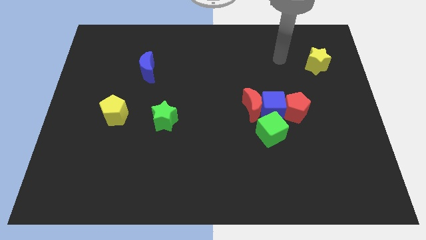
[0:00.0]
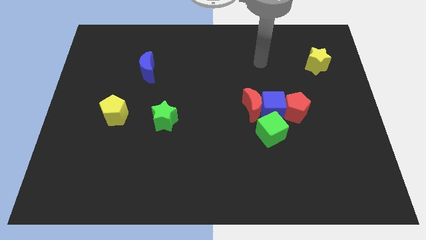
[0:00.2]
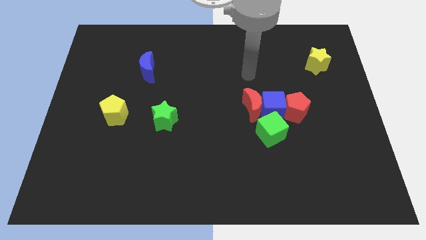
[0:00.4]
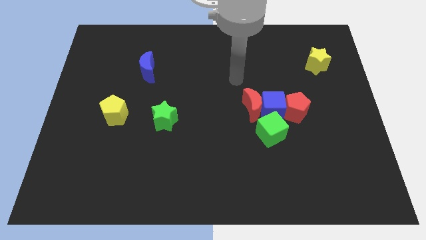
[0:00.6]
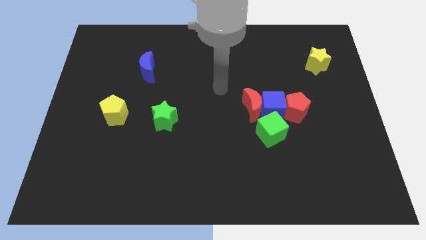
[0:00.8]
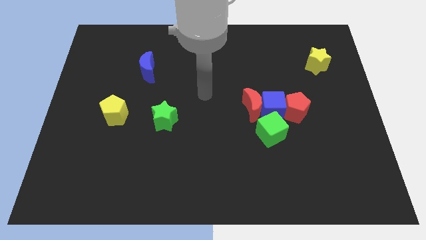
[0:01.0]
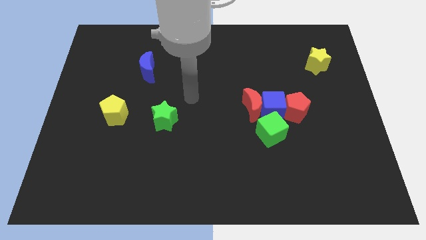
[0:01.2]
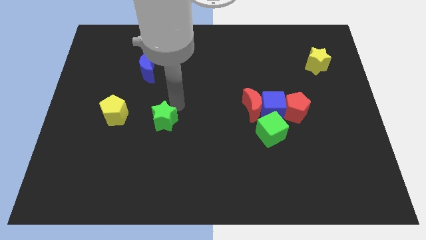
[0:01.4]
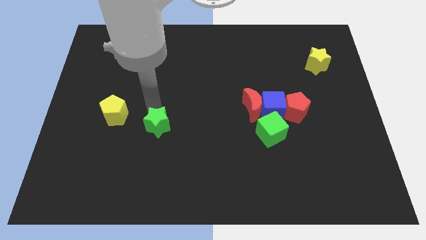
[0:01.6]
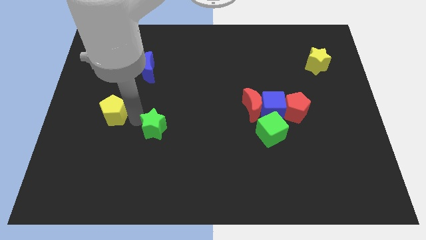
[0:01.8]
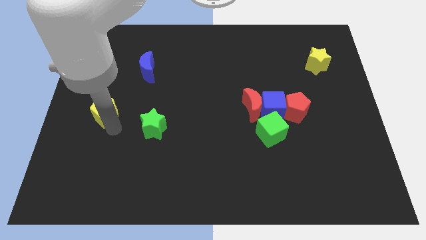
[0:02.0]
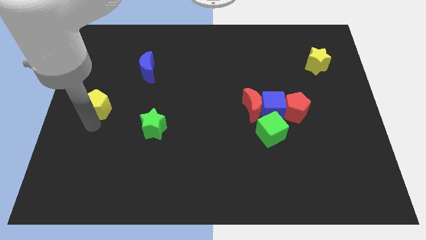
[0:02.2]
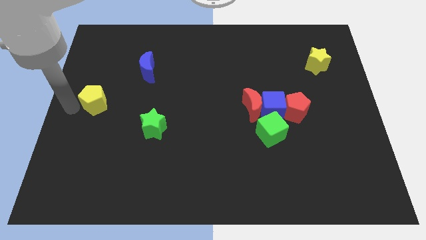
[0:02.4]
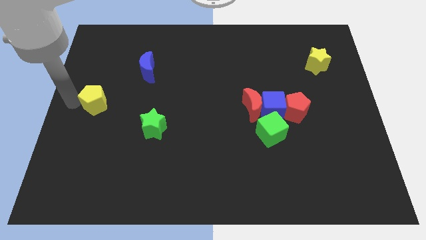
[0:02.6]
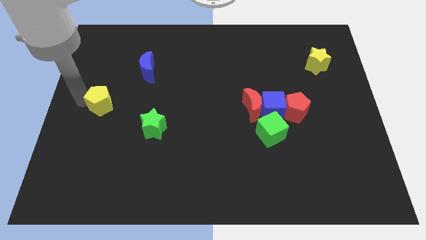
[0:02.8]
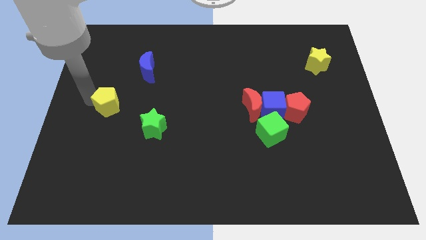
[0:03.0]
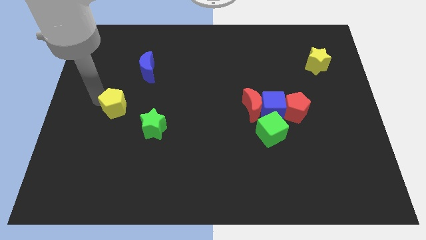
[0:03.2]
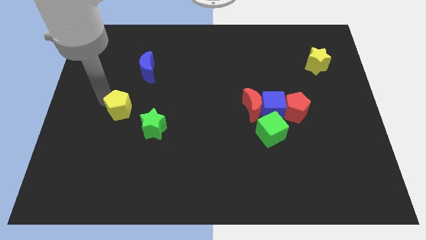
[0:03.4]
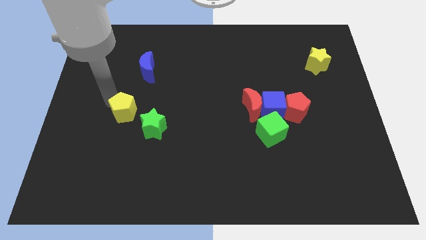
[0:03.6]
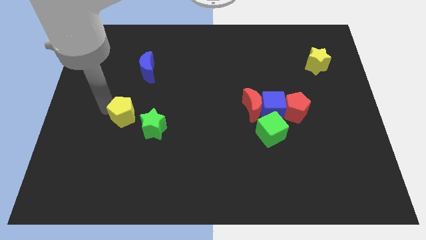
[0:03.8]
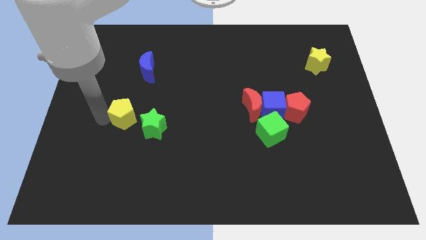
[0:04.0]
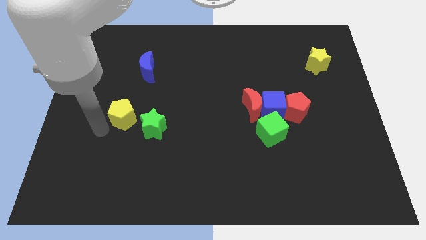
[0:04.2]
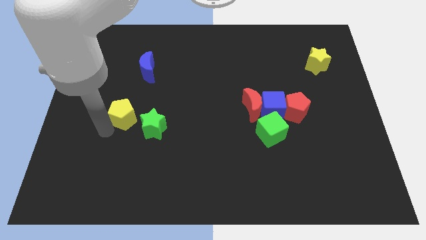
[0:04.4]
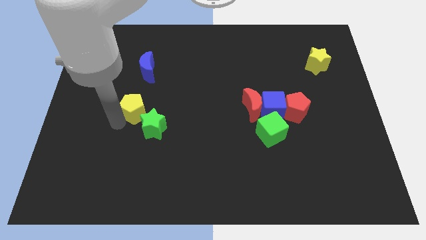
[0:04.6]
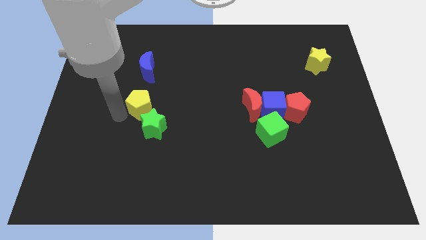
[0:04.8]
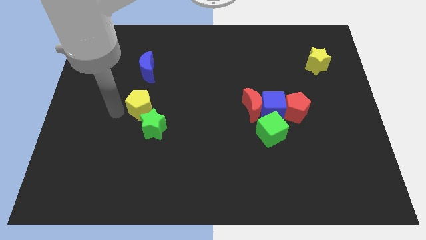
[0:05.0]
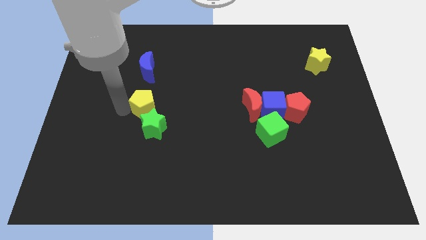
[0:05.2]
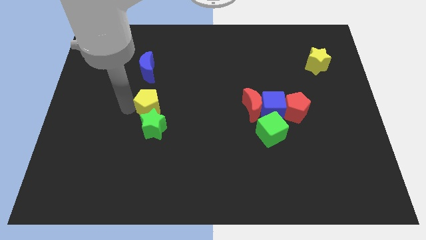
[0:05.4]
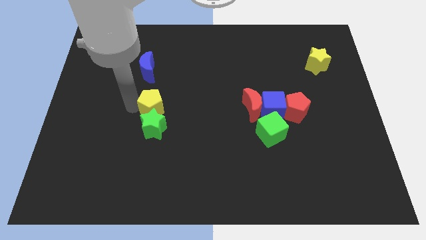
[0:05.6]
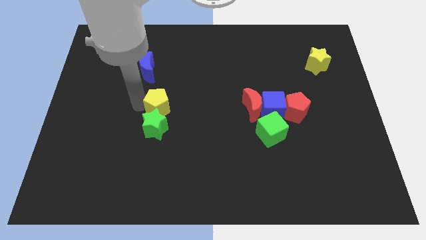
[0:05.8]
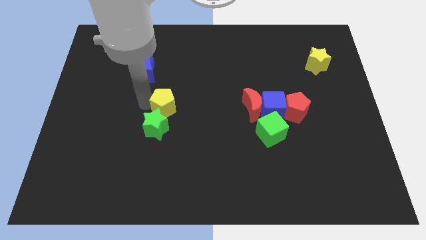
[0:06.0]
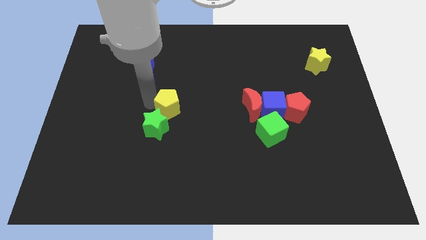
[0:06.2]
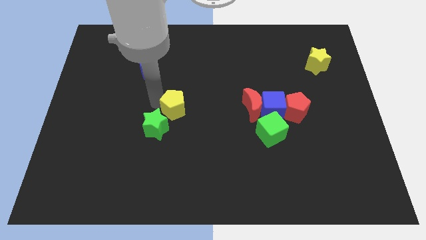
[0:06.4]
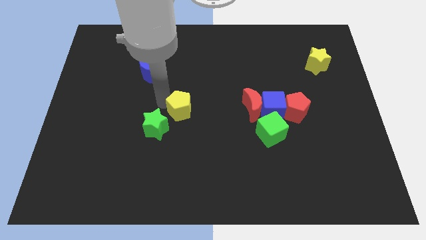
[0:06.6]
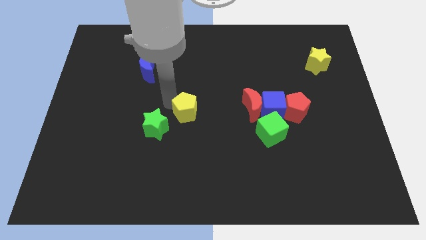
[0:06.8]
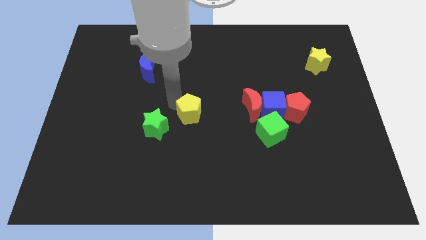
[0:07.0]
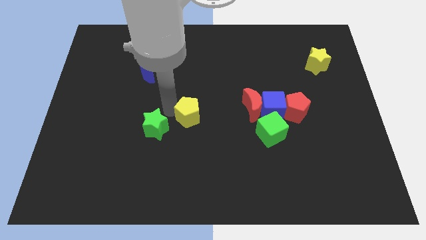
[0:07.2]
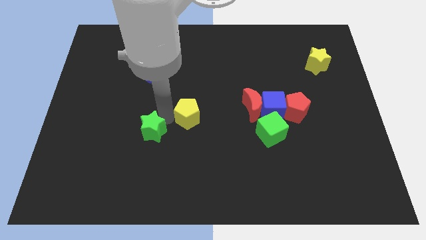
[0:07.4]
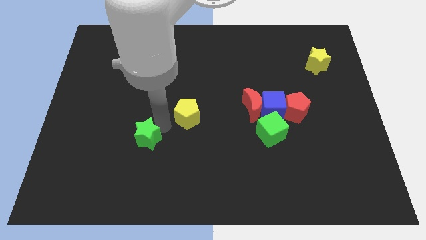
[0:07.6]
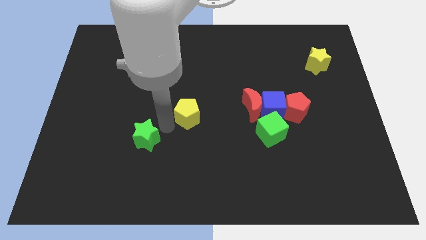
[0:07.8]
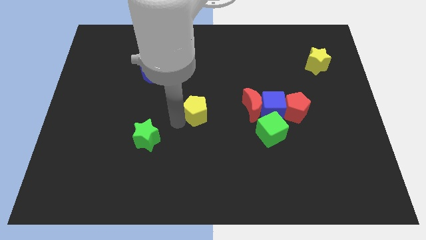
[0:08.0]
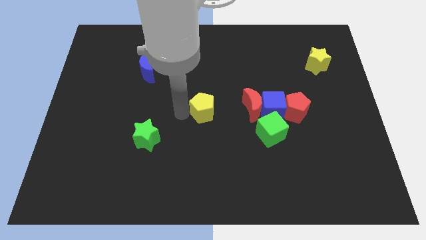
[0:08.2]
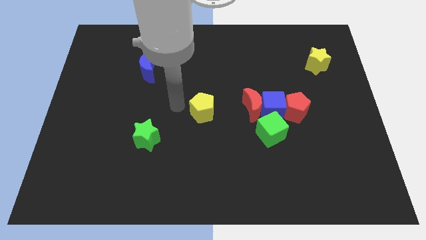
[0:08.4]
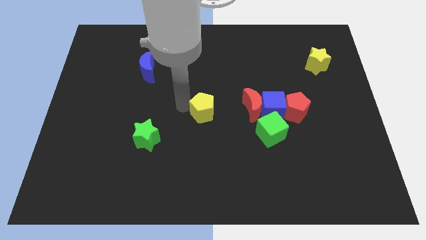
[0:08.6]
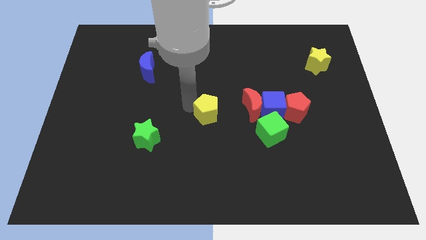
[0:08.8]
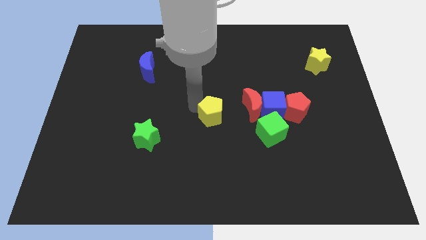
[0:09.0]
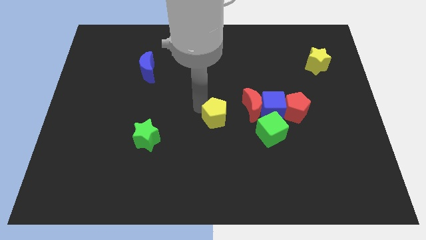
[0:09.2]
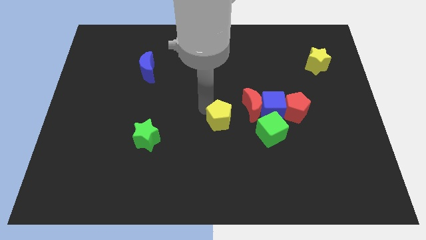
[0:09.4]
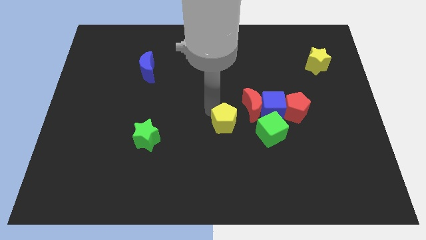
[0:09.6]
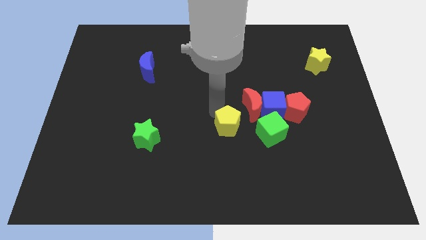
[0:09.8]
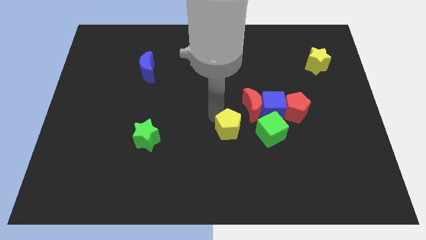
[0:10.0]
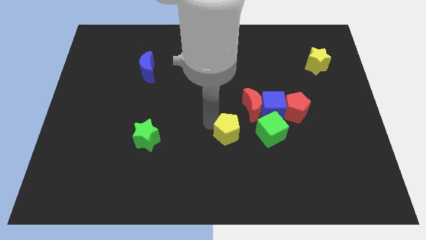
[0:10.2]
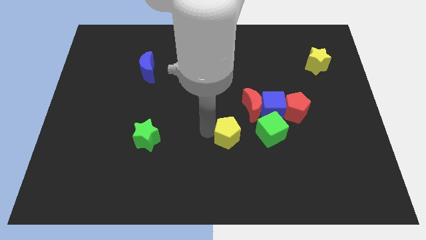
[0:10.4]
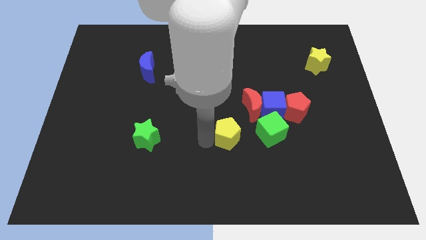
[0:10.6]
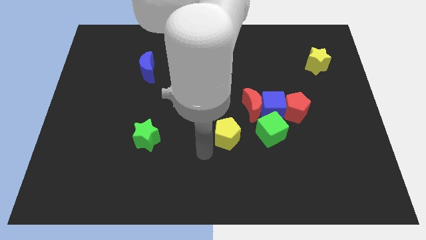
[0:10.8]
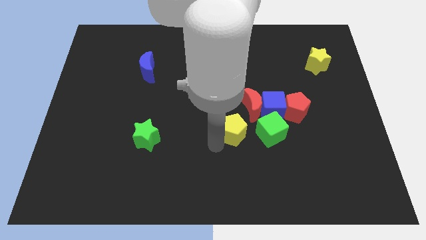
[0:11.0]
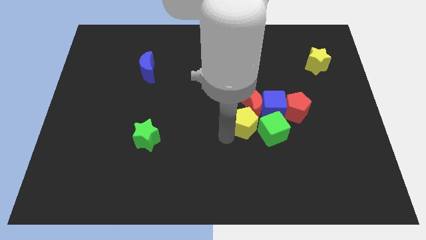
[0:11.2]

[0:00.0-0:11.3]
push the yellow pentagon next to the green cube
